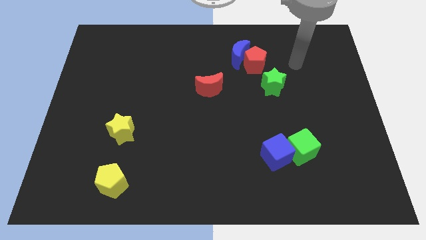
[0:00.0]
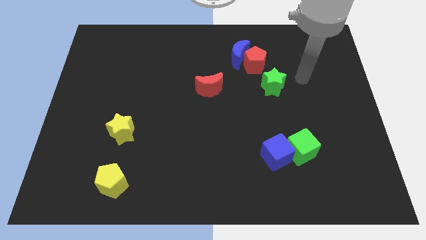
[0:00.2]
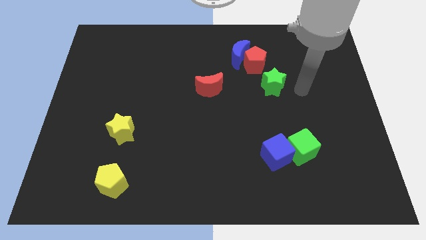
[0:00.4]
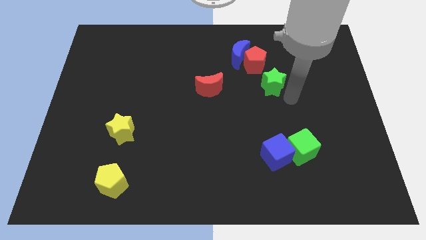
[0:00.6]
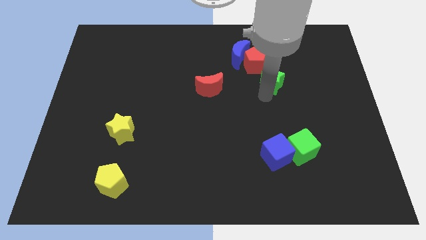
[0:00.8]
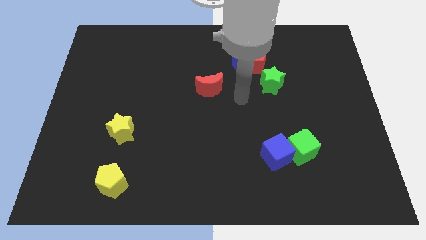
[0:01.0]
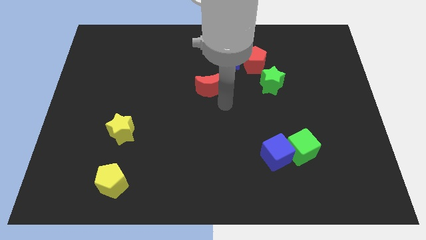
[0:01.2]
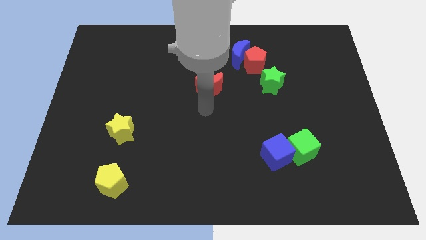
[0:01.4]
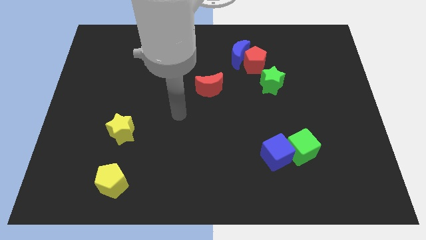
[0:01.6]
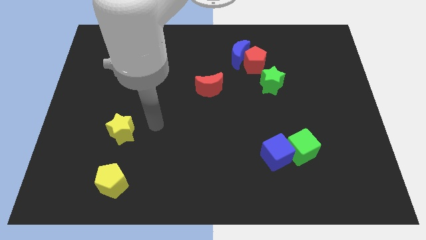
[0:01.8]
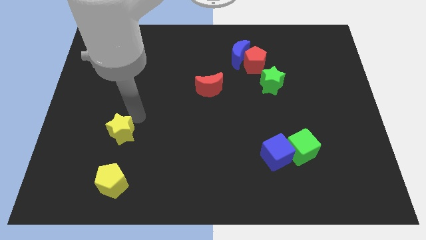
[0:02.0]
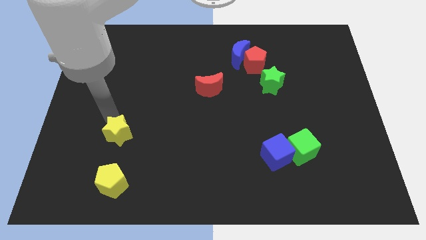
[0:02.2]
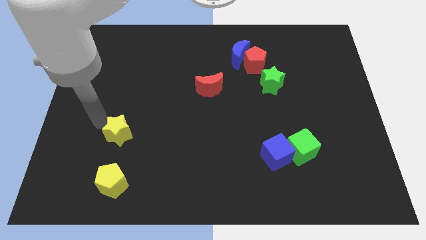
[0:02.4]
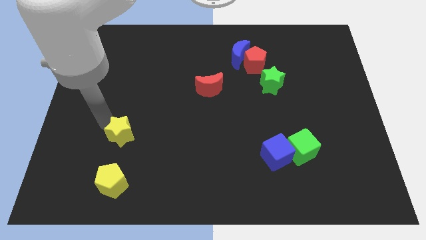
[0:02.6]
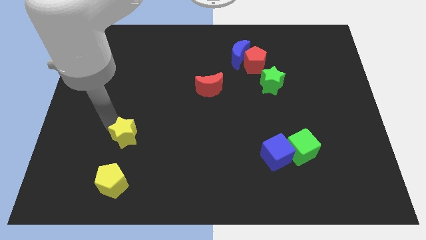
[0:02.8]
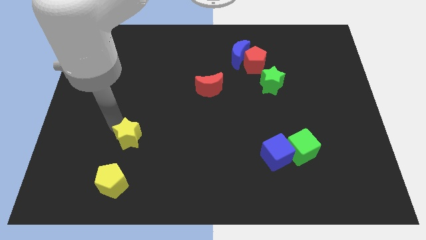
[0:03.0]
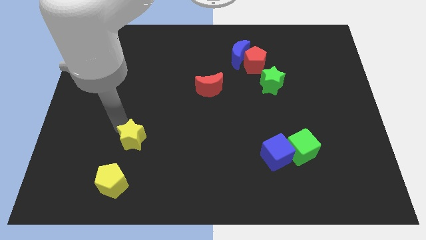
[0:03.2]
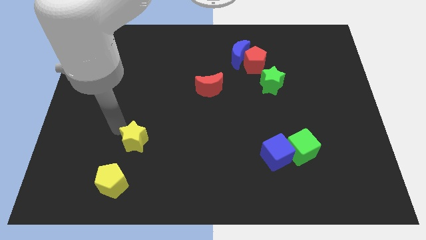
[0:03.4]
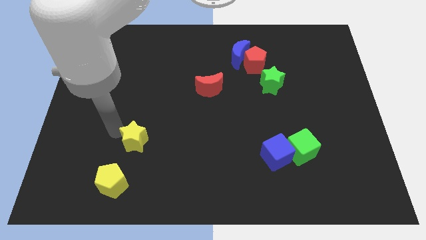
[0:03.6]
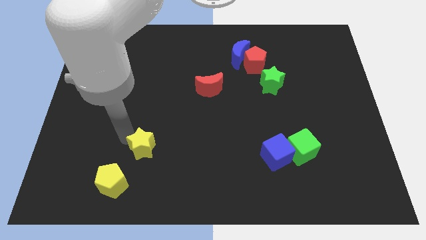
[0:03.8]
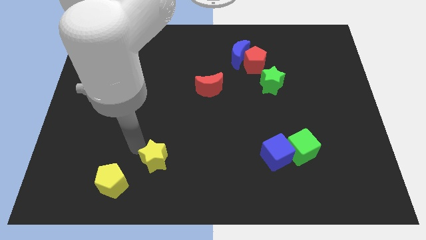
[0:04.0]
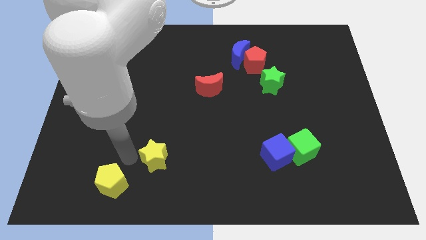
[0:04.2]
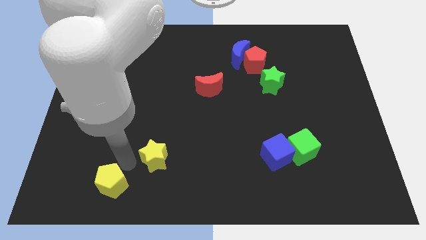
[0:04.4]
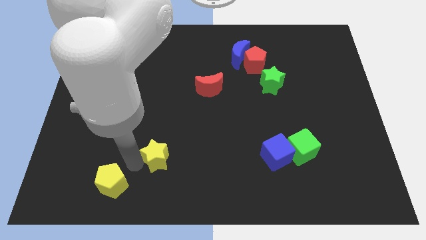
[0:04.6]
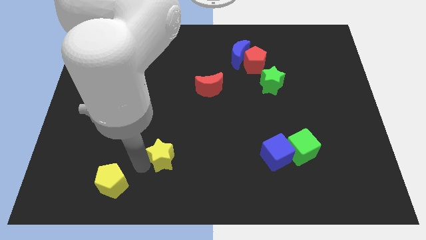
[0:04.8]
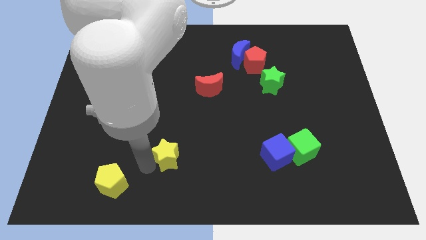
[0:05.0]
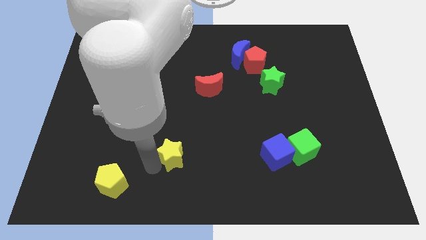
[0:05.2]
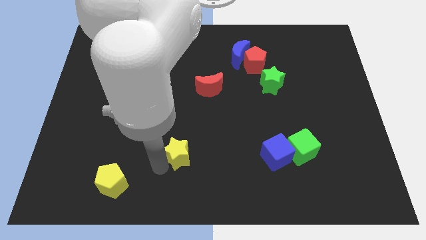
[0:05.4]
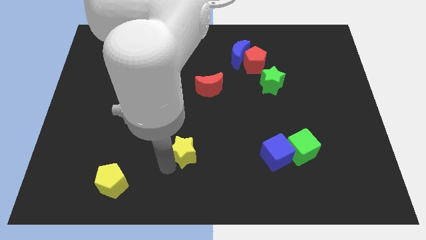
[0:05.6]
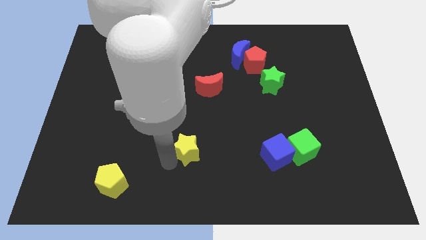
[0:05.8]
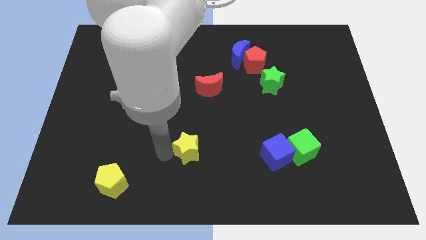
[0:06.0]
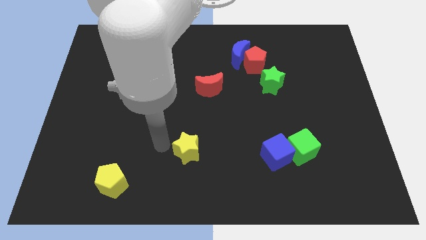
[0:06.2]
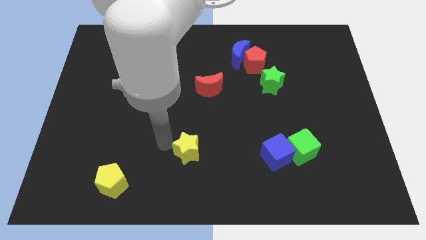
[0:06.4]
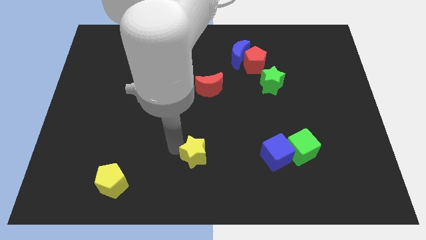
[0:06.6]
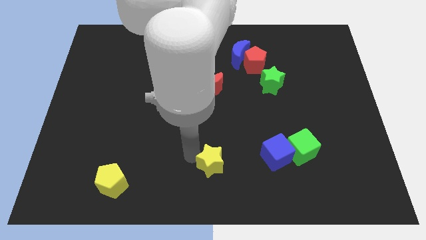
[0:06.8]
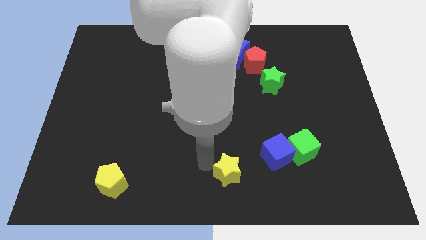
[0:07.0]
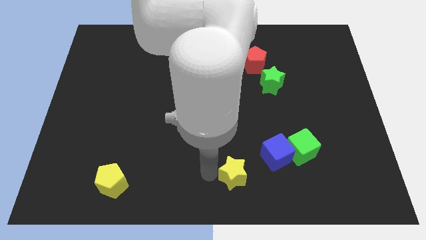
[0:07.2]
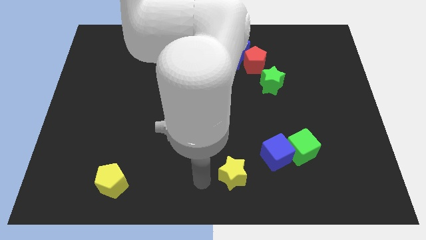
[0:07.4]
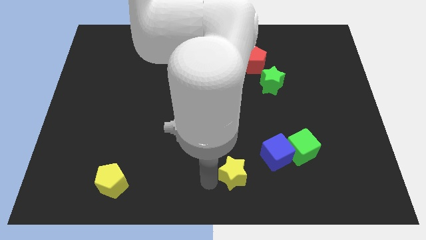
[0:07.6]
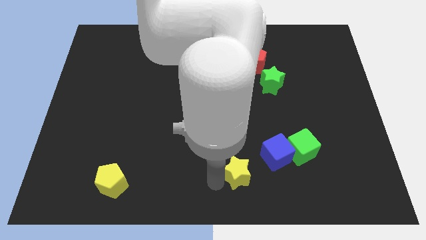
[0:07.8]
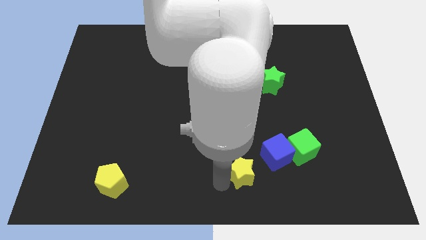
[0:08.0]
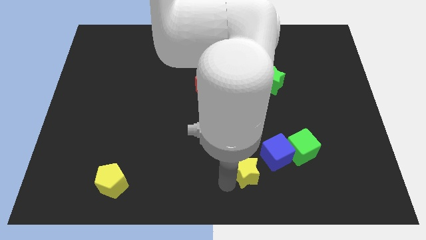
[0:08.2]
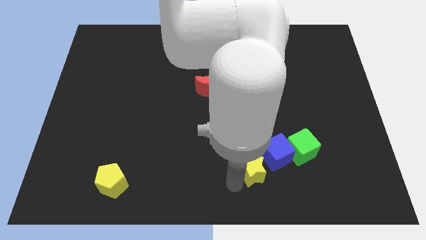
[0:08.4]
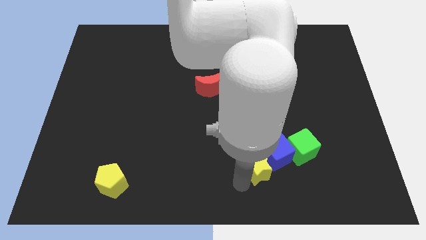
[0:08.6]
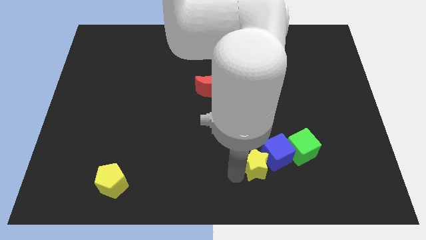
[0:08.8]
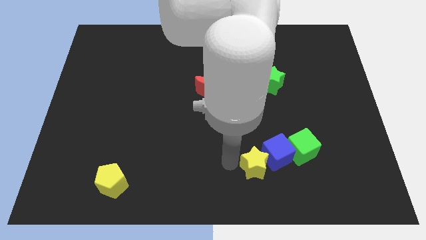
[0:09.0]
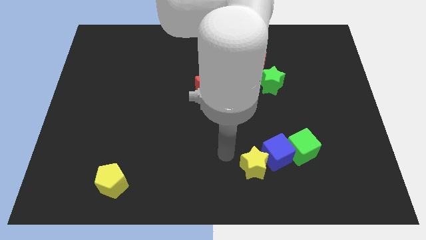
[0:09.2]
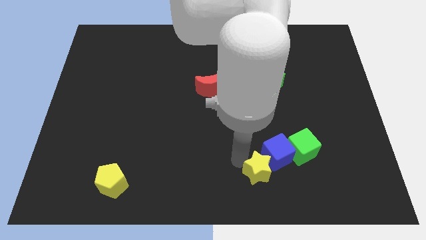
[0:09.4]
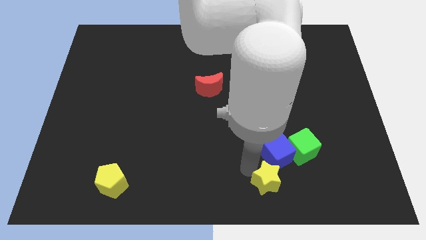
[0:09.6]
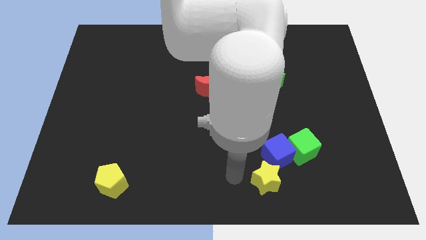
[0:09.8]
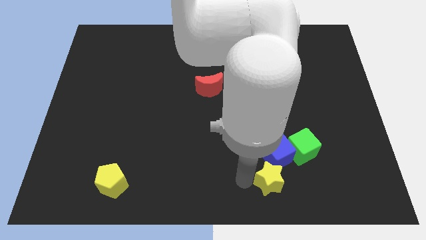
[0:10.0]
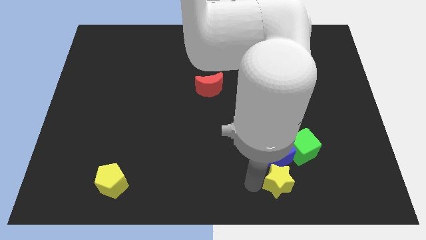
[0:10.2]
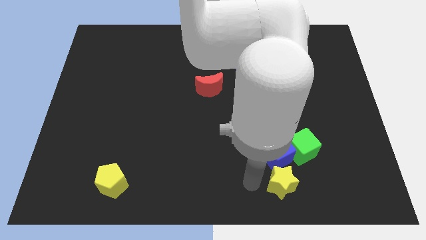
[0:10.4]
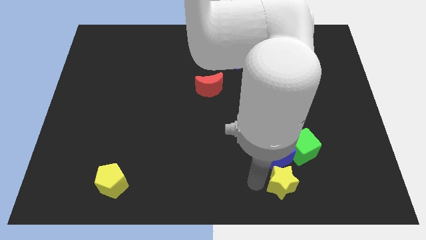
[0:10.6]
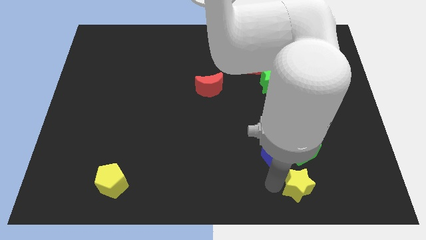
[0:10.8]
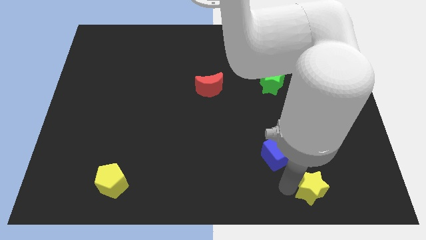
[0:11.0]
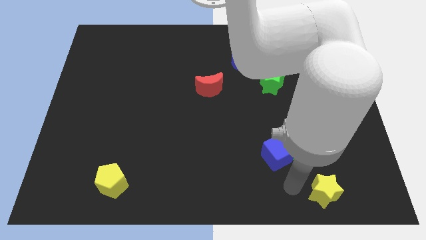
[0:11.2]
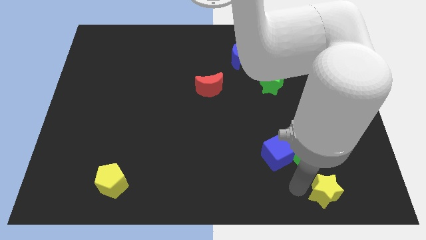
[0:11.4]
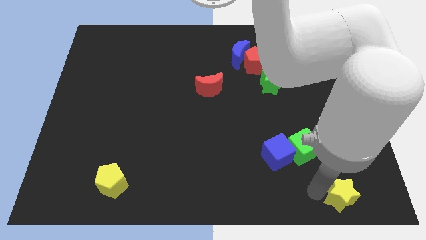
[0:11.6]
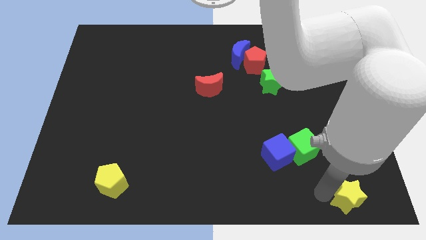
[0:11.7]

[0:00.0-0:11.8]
push the yellow star to the bottom right corner

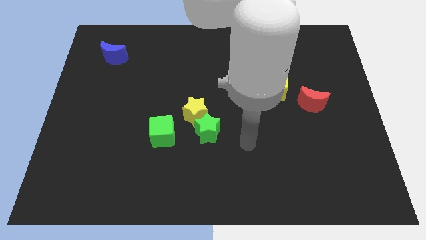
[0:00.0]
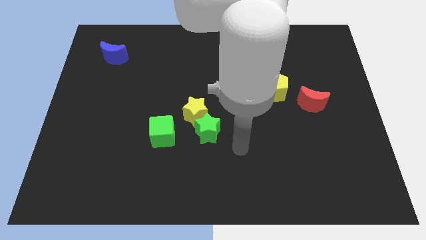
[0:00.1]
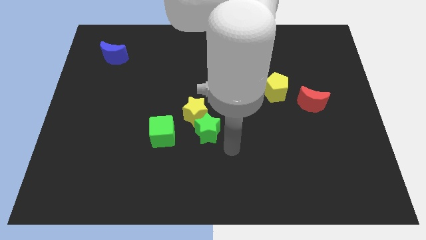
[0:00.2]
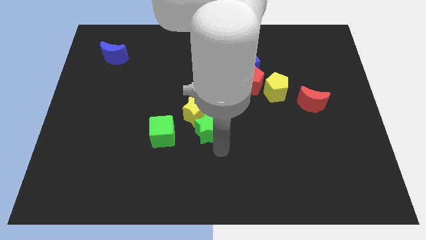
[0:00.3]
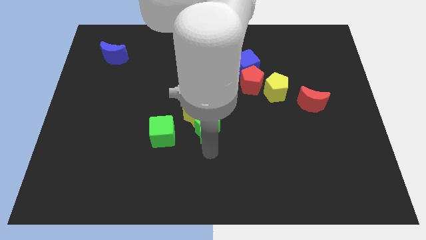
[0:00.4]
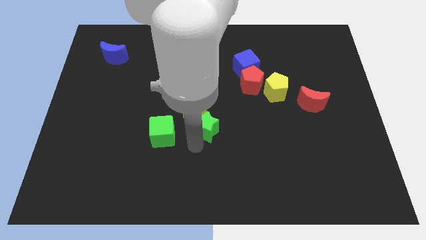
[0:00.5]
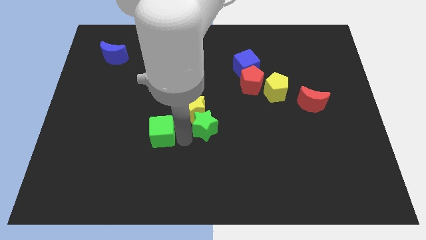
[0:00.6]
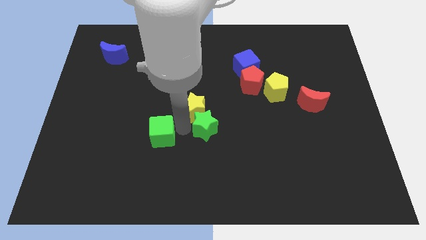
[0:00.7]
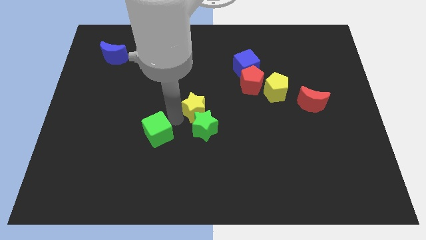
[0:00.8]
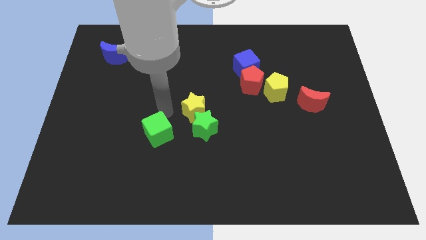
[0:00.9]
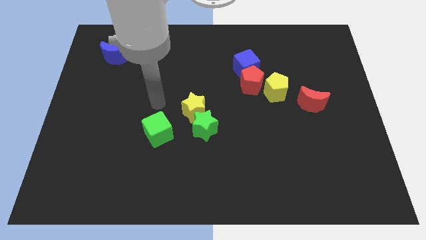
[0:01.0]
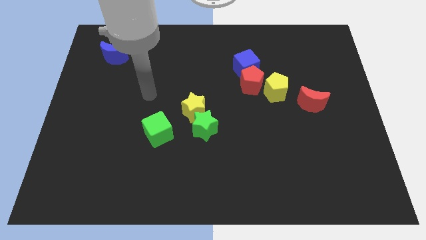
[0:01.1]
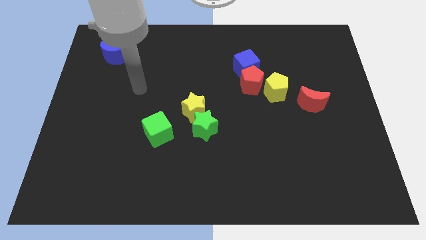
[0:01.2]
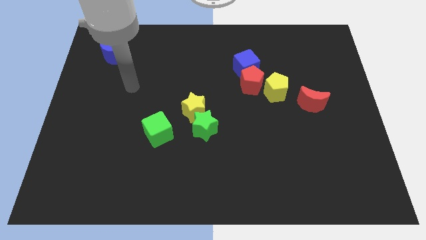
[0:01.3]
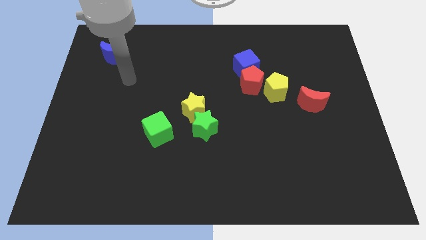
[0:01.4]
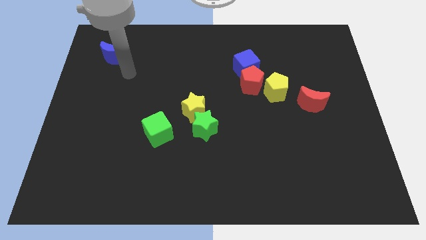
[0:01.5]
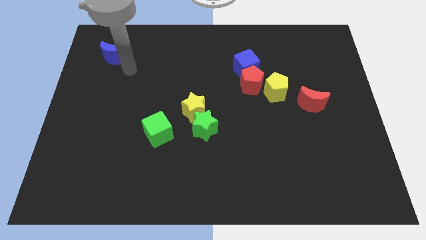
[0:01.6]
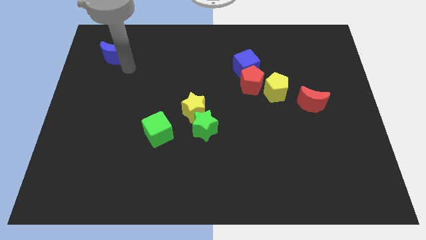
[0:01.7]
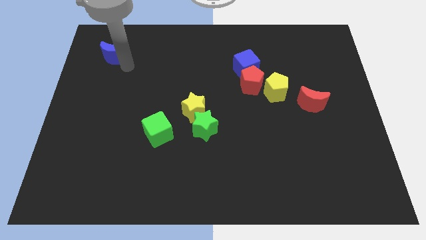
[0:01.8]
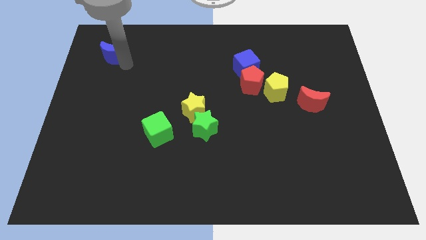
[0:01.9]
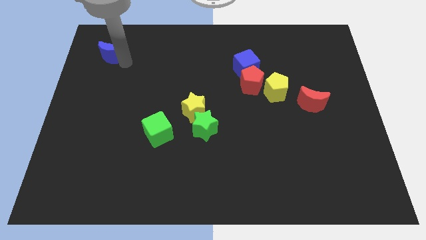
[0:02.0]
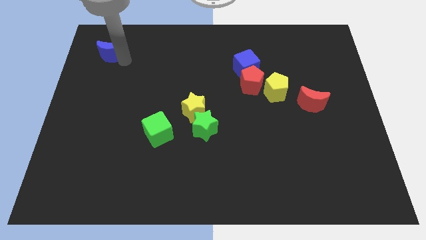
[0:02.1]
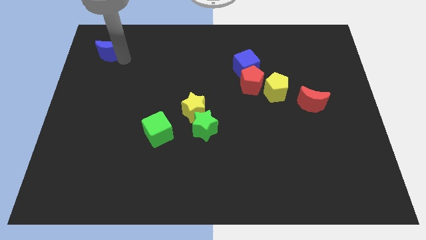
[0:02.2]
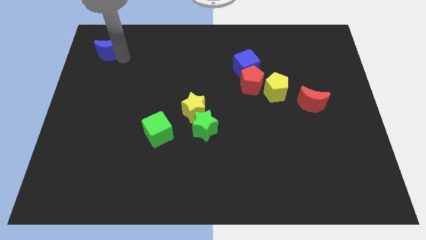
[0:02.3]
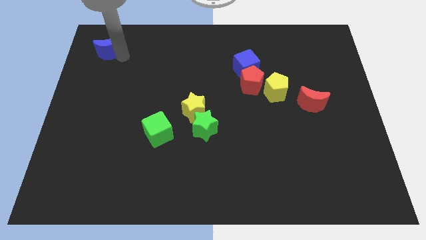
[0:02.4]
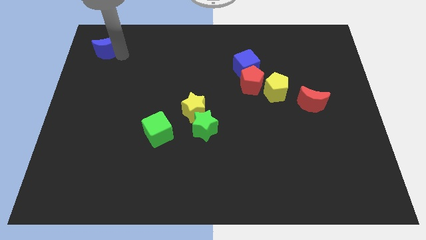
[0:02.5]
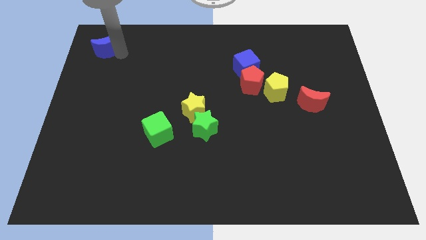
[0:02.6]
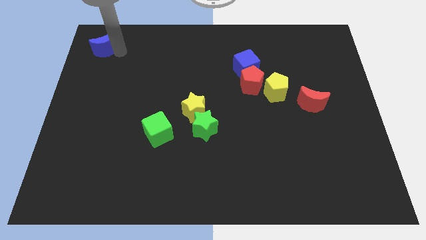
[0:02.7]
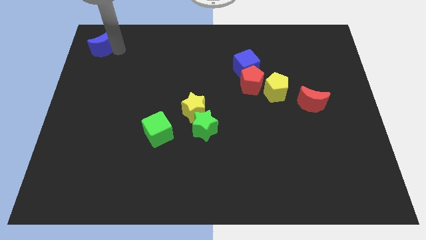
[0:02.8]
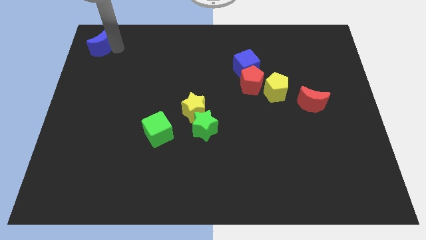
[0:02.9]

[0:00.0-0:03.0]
put the blue moon to the top left corner
